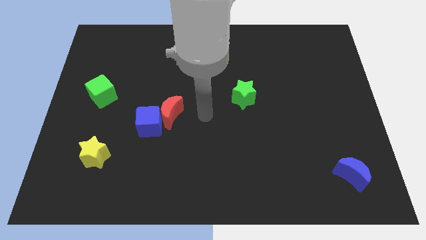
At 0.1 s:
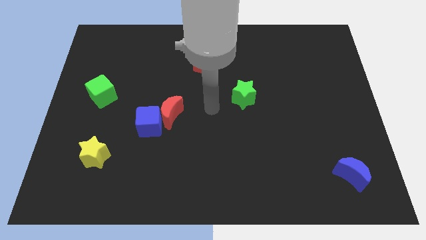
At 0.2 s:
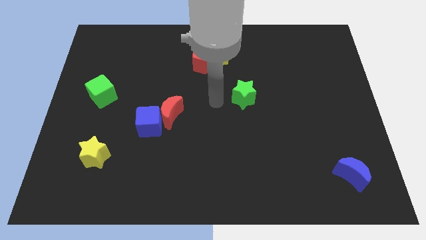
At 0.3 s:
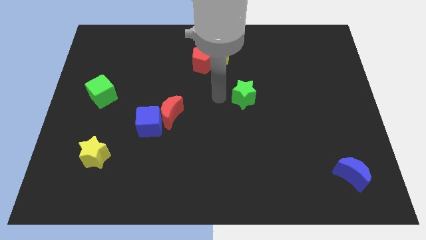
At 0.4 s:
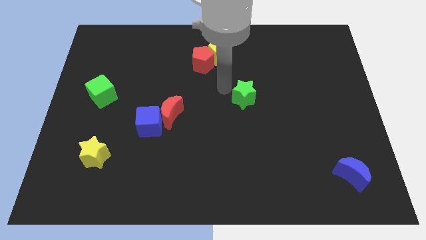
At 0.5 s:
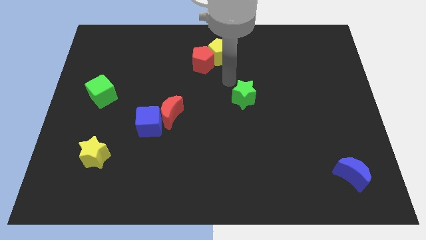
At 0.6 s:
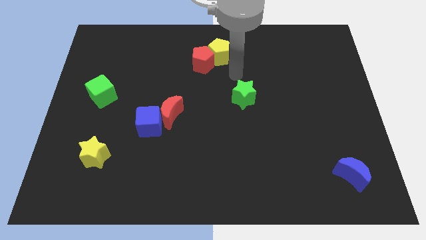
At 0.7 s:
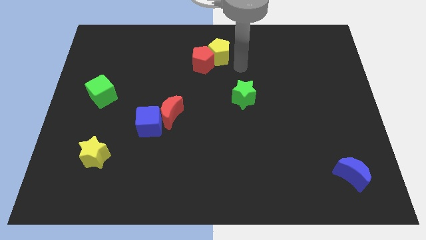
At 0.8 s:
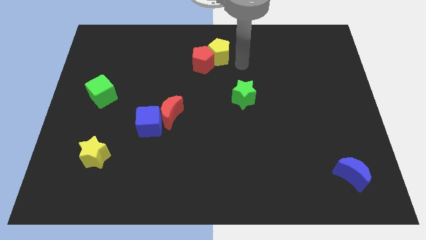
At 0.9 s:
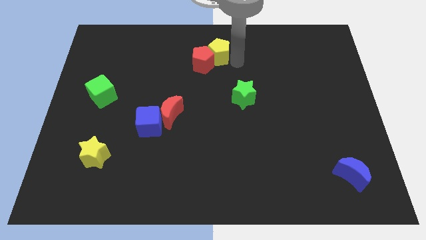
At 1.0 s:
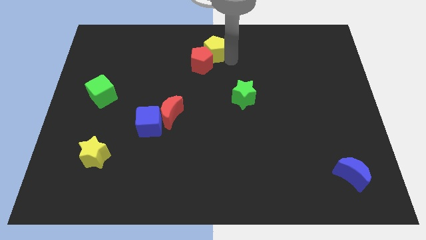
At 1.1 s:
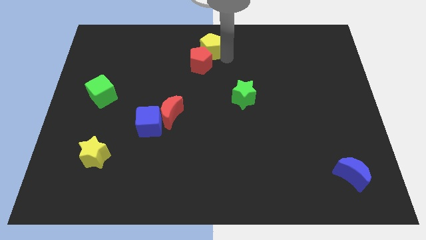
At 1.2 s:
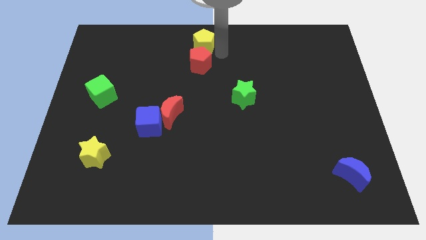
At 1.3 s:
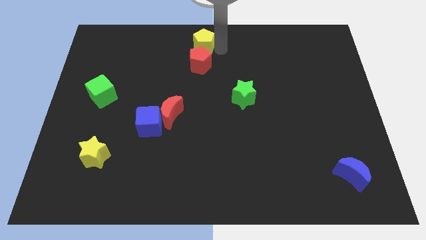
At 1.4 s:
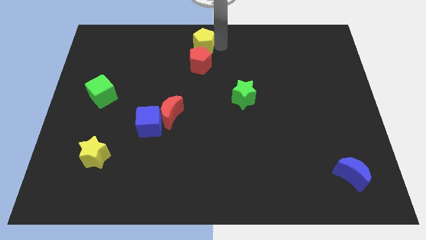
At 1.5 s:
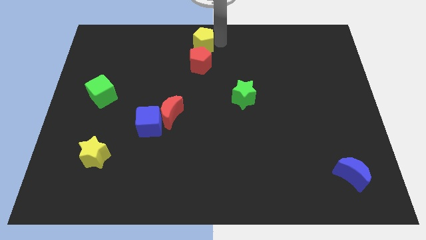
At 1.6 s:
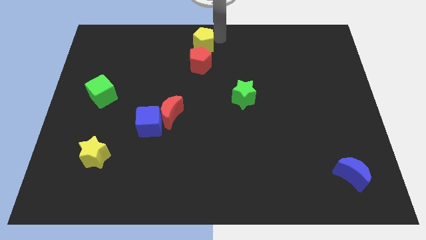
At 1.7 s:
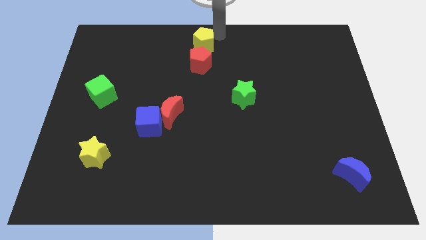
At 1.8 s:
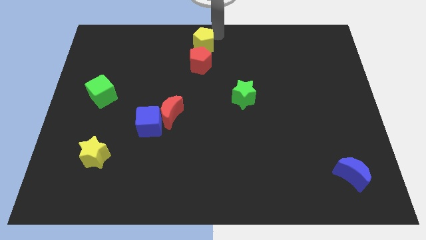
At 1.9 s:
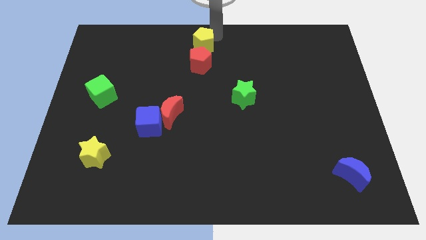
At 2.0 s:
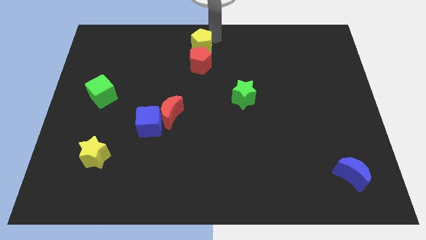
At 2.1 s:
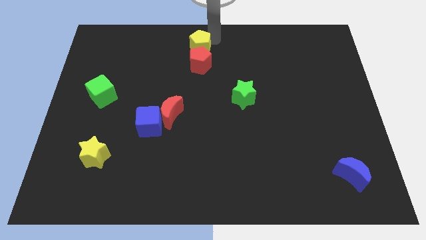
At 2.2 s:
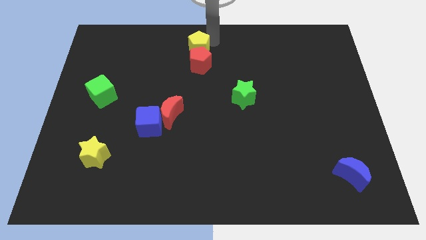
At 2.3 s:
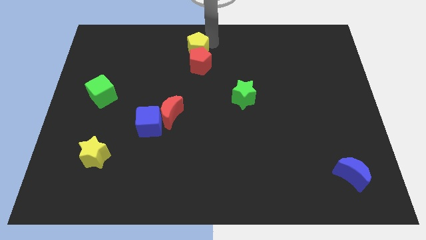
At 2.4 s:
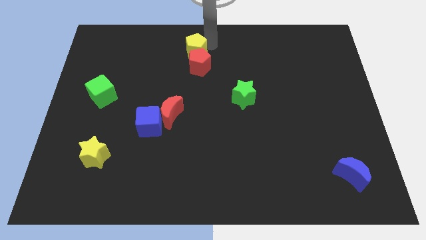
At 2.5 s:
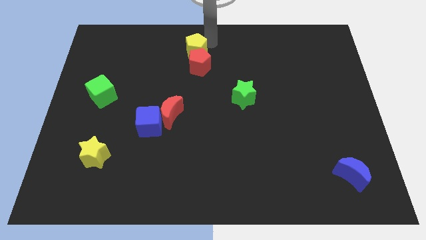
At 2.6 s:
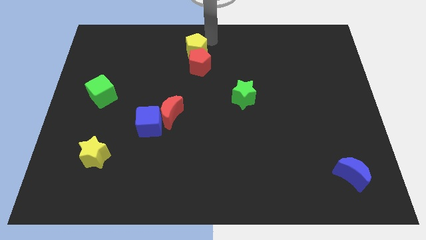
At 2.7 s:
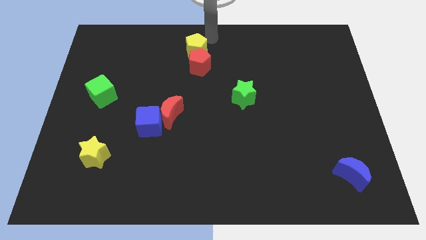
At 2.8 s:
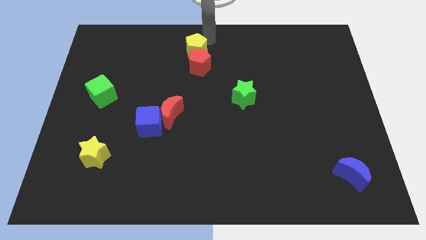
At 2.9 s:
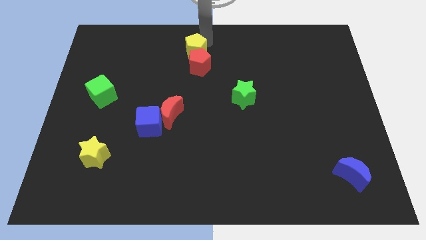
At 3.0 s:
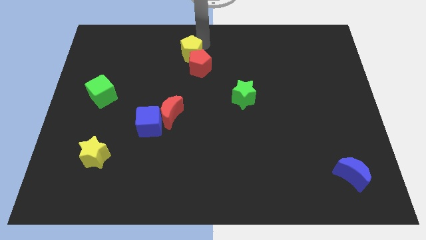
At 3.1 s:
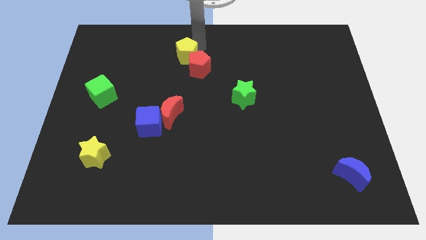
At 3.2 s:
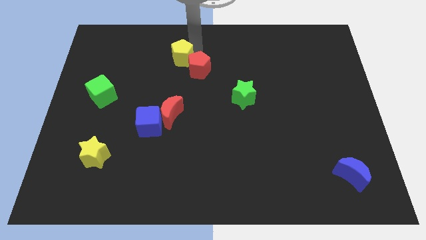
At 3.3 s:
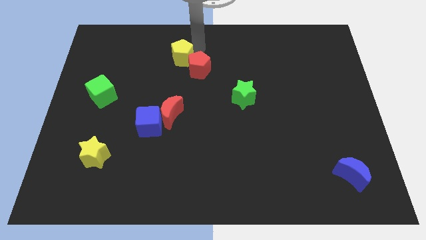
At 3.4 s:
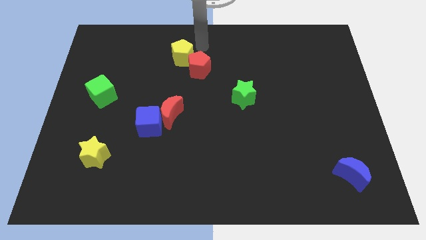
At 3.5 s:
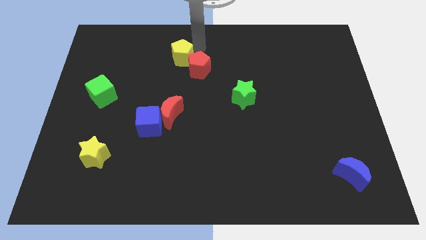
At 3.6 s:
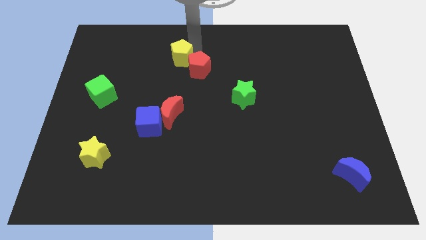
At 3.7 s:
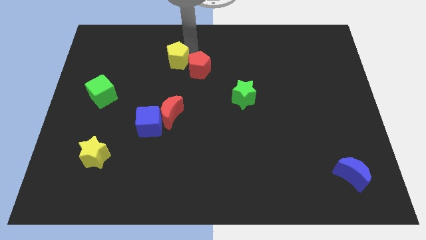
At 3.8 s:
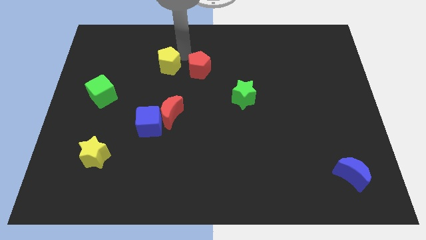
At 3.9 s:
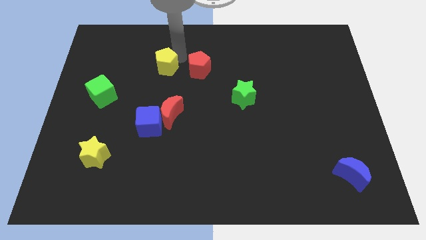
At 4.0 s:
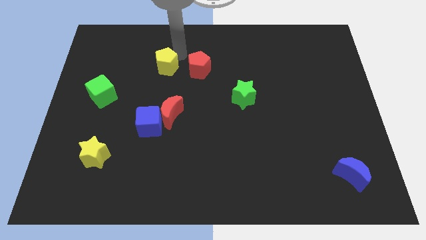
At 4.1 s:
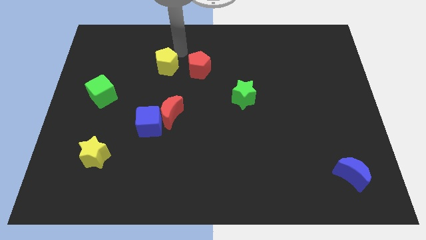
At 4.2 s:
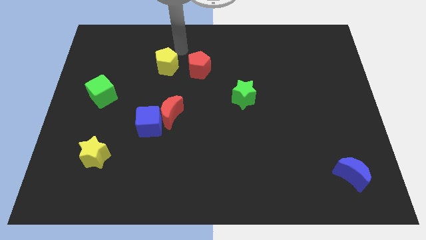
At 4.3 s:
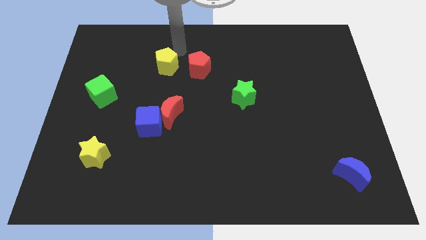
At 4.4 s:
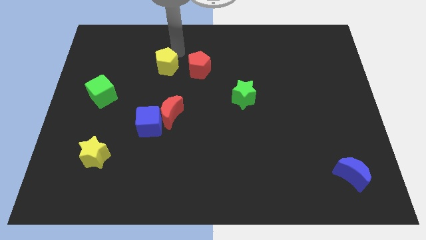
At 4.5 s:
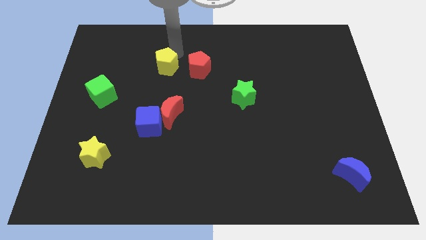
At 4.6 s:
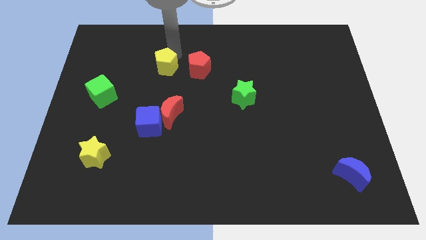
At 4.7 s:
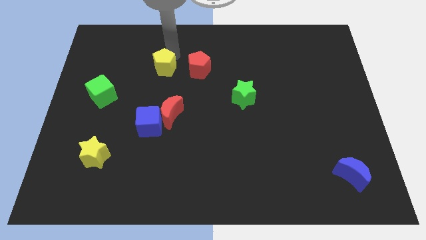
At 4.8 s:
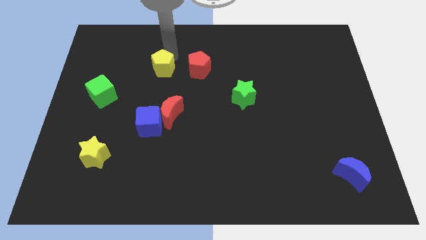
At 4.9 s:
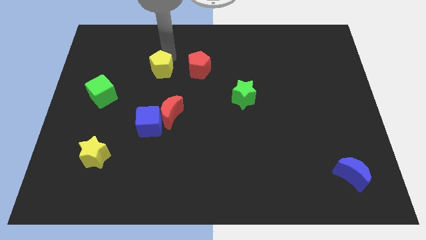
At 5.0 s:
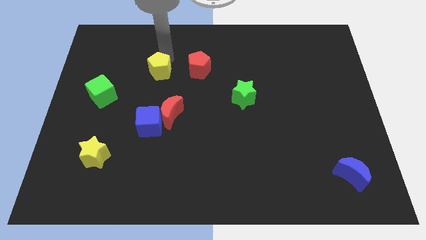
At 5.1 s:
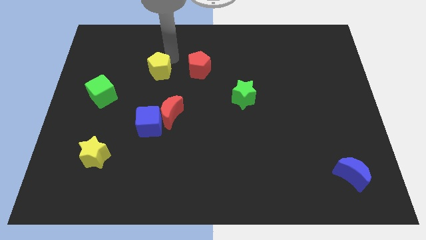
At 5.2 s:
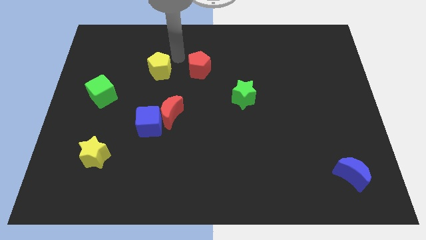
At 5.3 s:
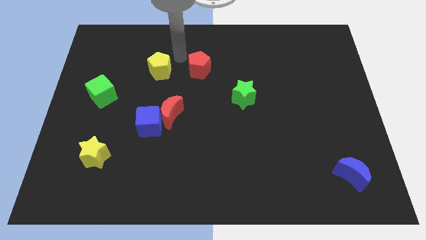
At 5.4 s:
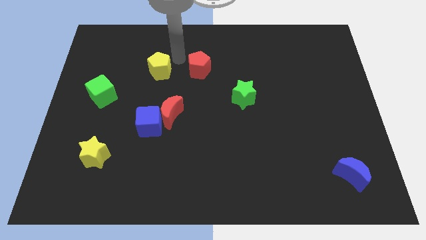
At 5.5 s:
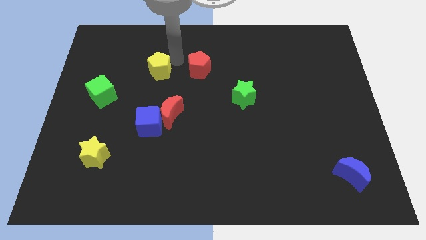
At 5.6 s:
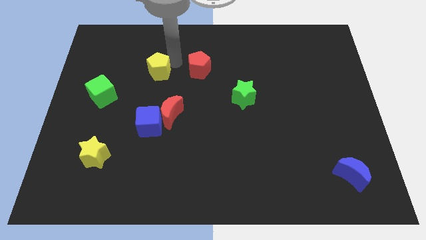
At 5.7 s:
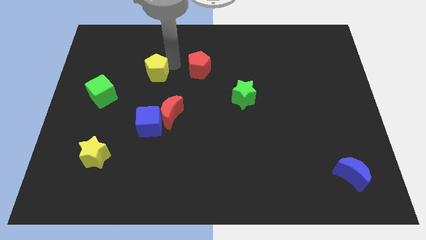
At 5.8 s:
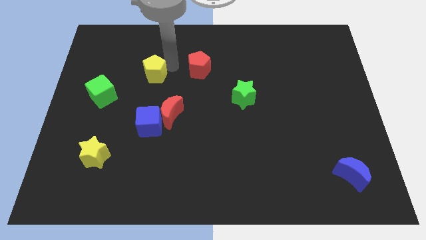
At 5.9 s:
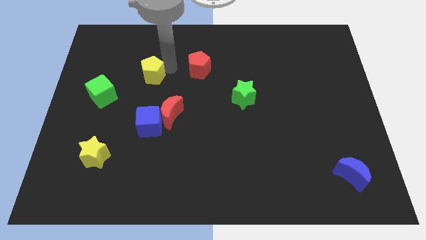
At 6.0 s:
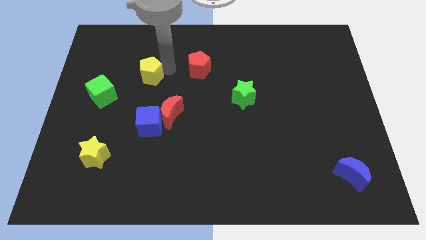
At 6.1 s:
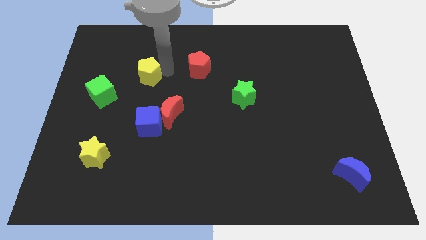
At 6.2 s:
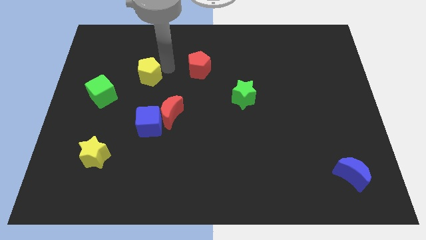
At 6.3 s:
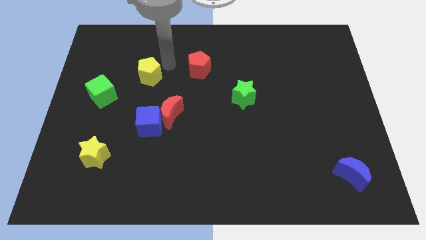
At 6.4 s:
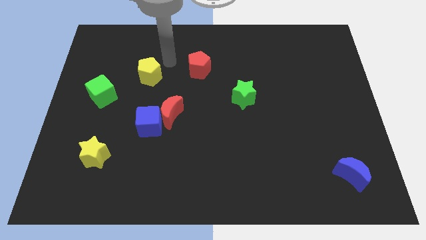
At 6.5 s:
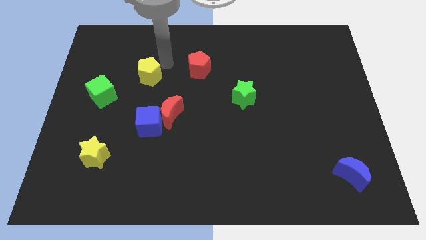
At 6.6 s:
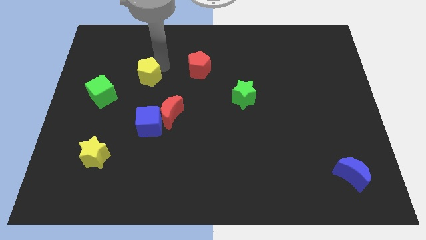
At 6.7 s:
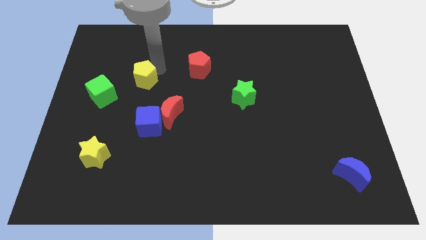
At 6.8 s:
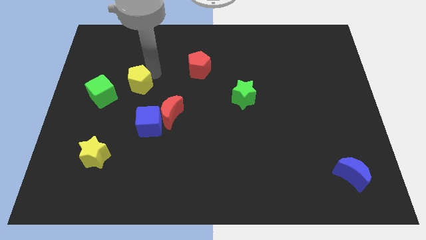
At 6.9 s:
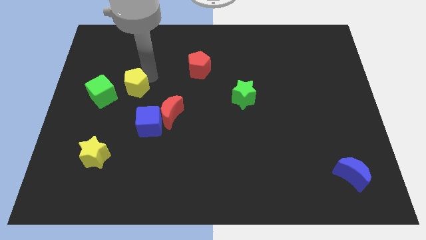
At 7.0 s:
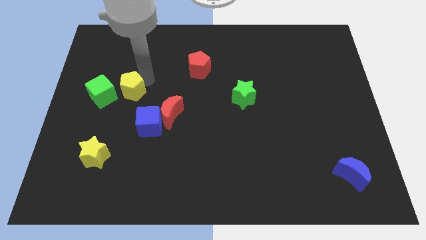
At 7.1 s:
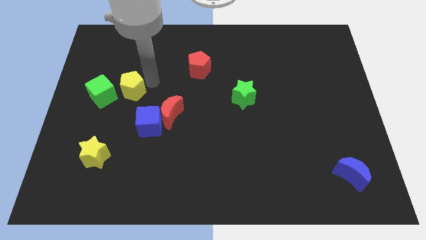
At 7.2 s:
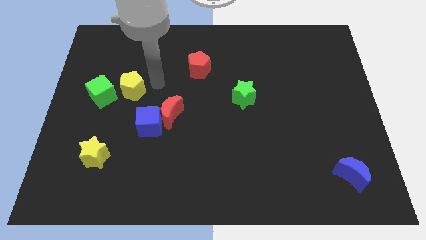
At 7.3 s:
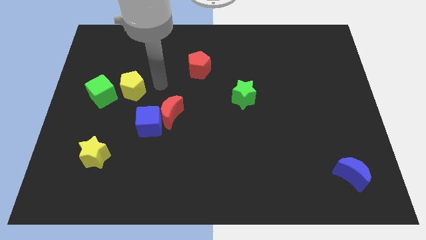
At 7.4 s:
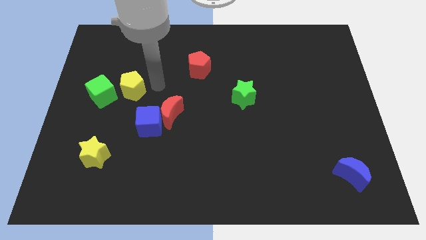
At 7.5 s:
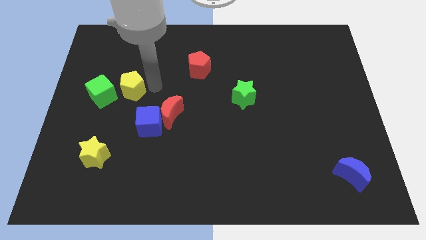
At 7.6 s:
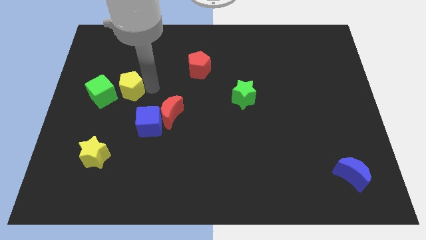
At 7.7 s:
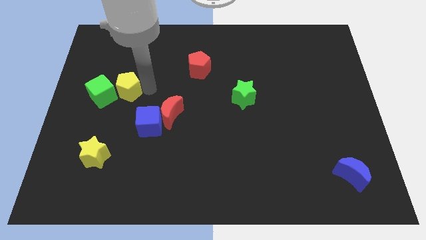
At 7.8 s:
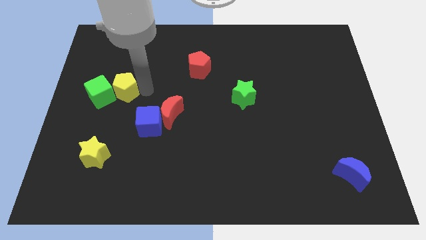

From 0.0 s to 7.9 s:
slide the yellow pentagon next to the green cube
